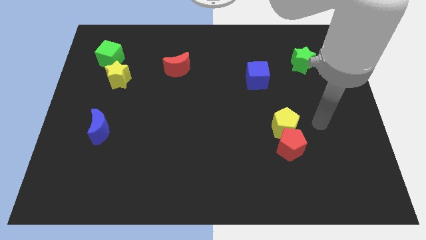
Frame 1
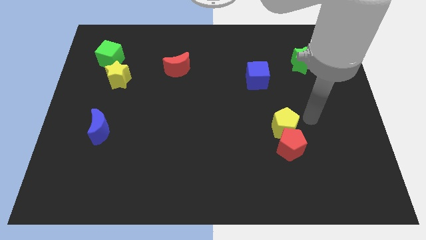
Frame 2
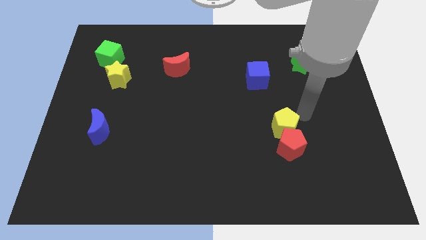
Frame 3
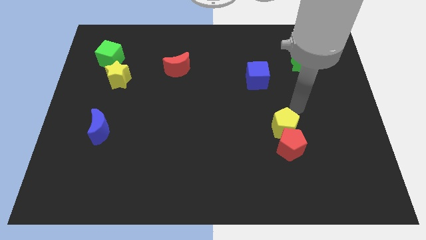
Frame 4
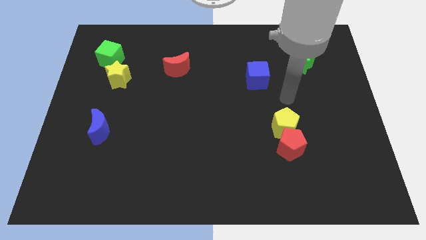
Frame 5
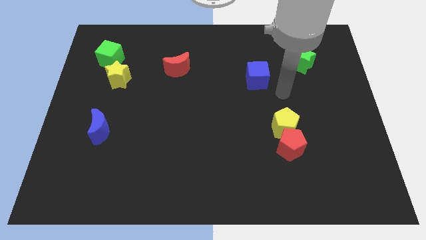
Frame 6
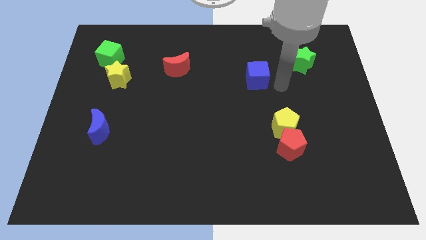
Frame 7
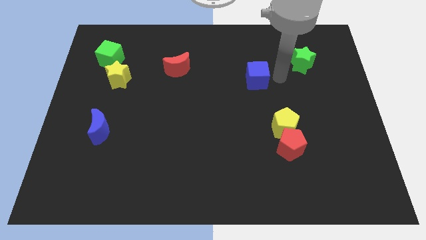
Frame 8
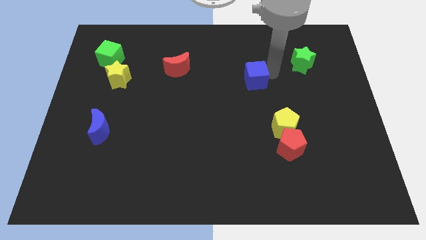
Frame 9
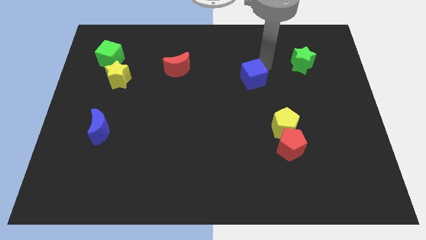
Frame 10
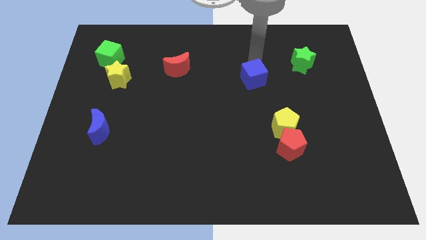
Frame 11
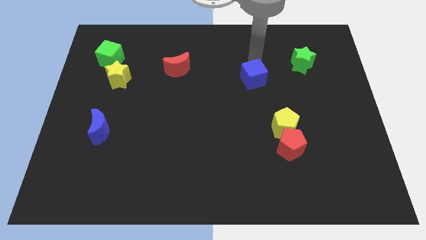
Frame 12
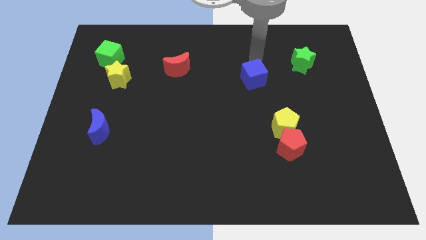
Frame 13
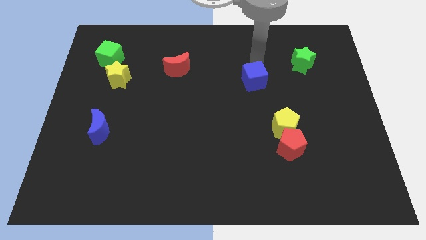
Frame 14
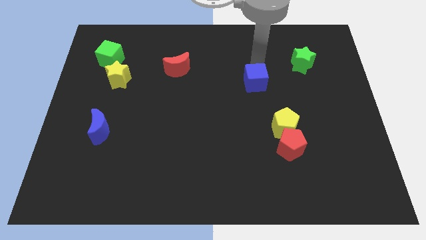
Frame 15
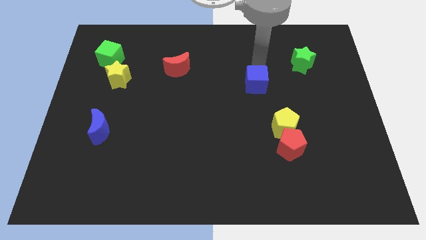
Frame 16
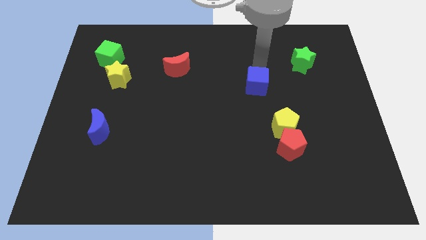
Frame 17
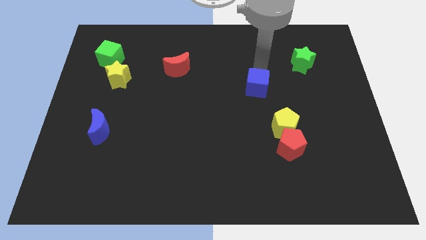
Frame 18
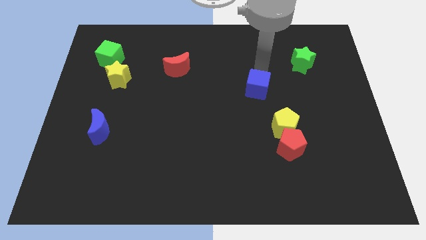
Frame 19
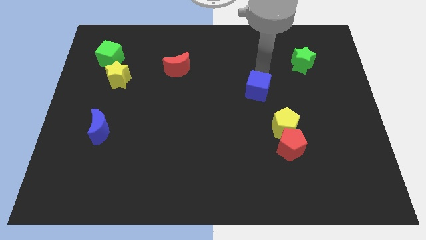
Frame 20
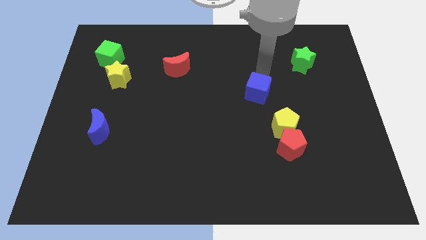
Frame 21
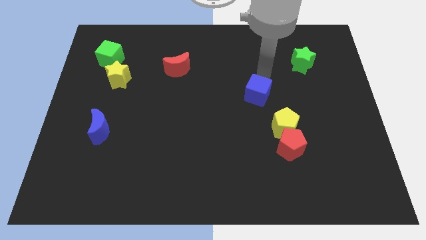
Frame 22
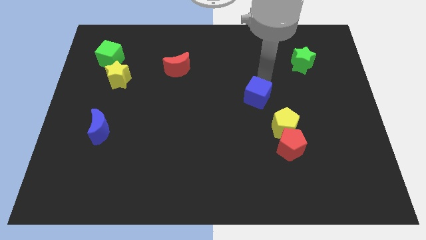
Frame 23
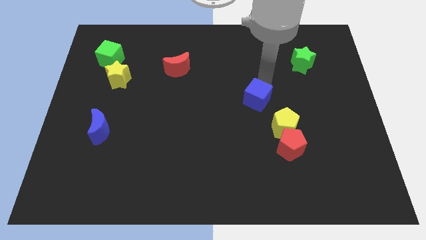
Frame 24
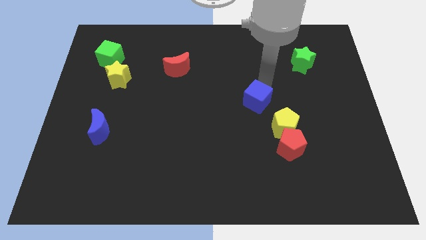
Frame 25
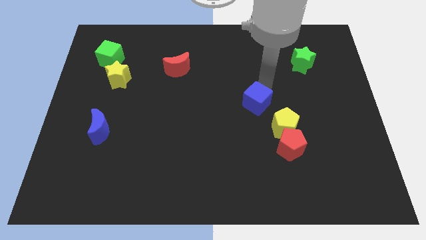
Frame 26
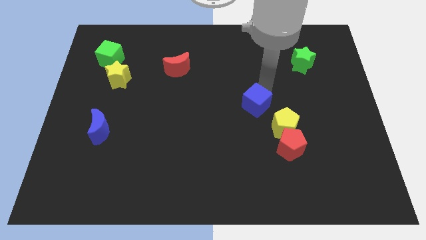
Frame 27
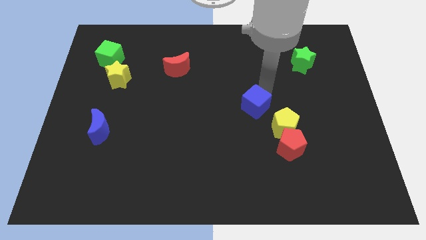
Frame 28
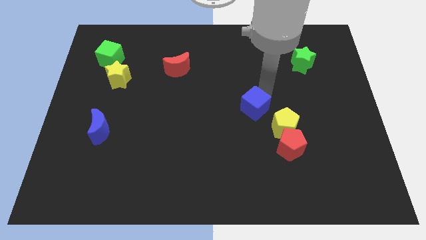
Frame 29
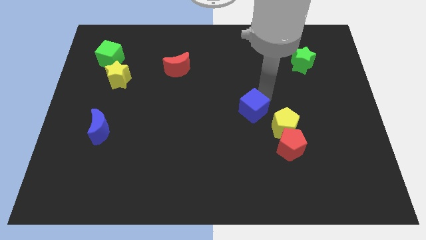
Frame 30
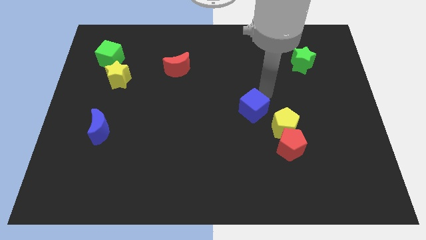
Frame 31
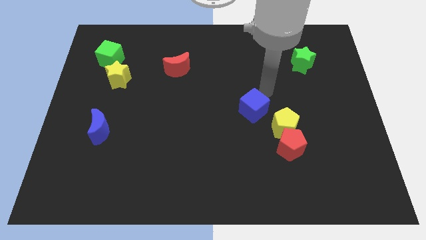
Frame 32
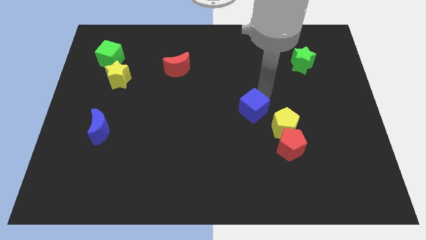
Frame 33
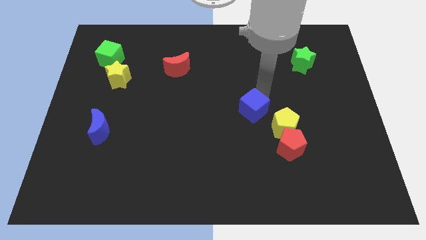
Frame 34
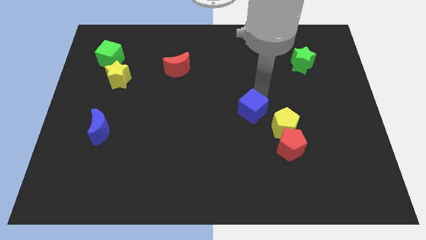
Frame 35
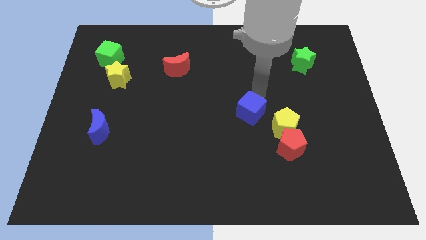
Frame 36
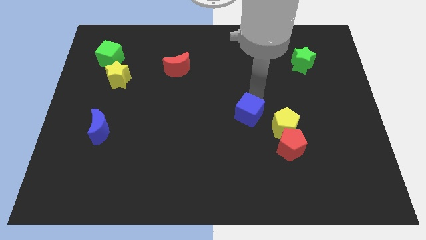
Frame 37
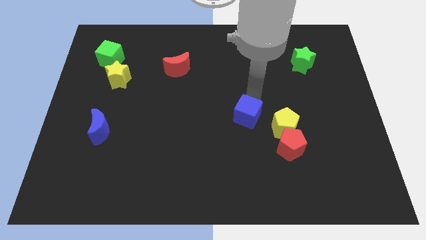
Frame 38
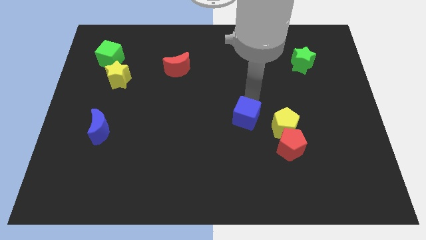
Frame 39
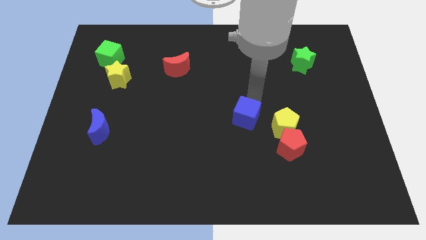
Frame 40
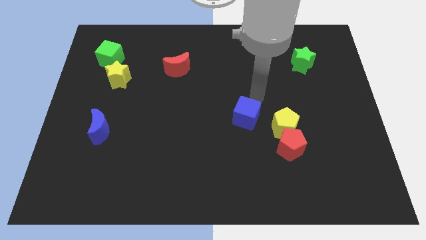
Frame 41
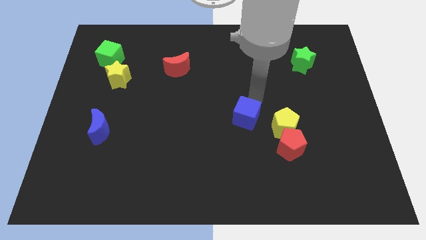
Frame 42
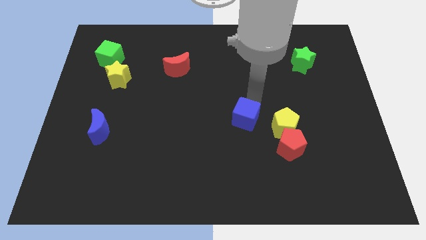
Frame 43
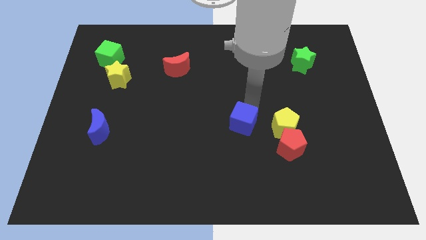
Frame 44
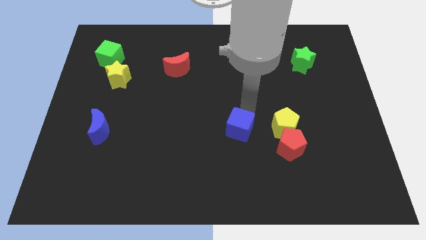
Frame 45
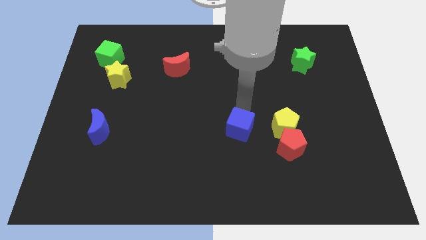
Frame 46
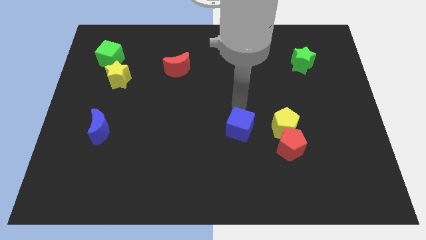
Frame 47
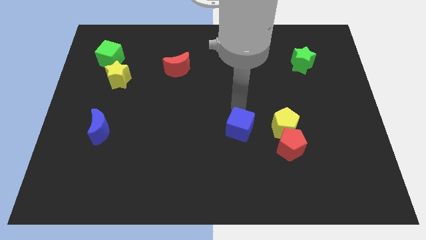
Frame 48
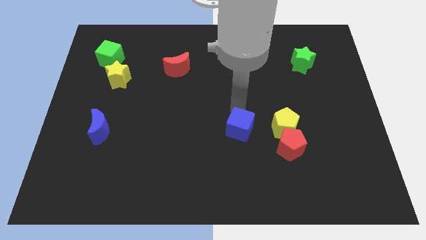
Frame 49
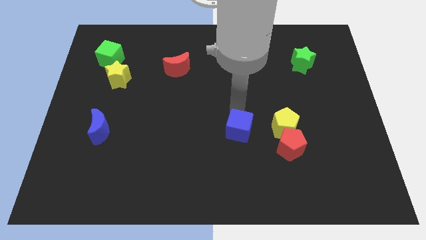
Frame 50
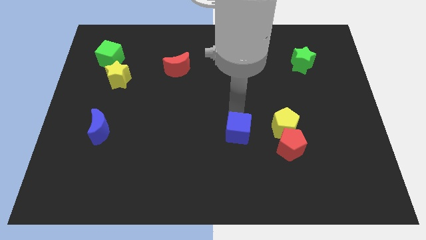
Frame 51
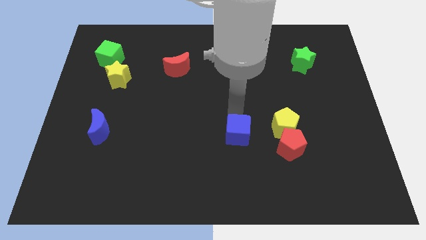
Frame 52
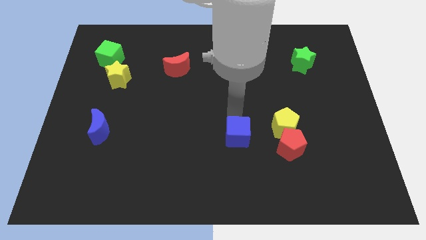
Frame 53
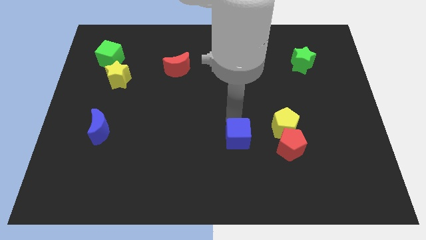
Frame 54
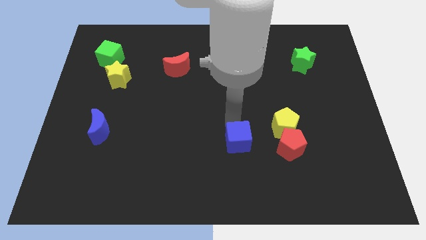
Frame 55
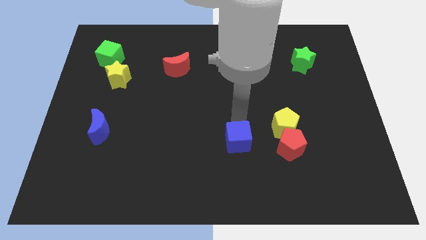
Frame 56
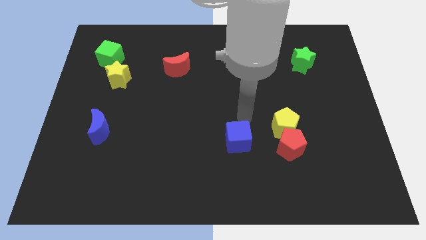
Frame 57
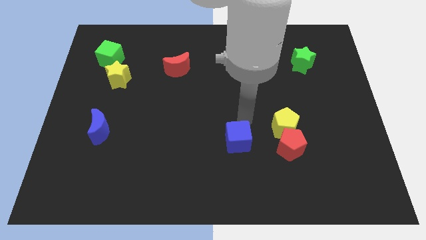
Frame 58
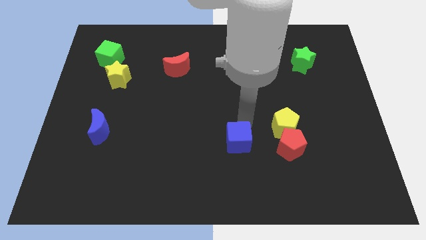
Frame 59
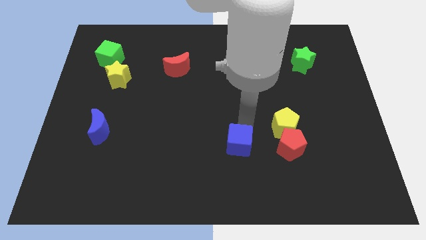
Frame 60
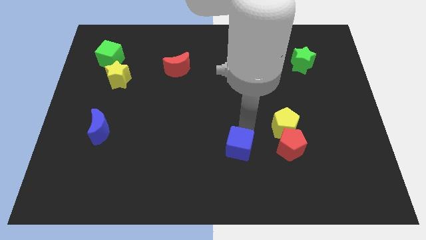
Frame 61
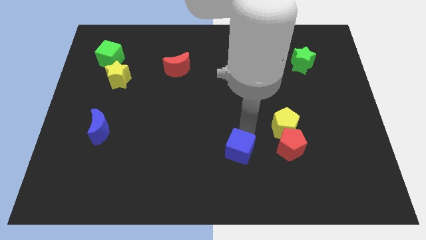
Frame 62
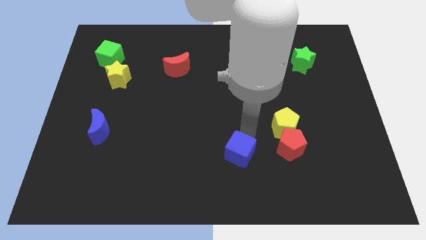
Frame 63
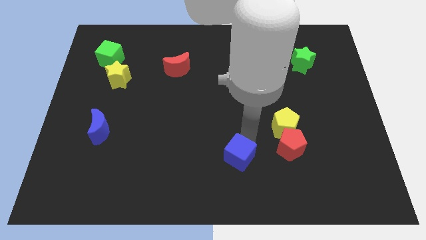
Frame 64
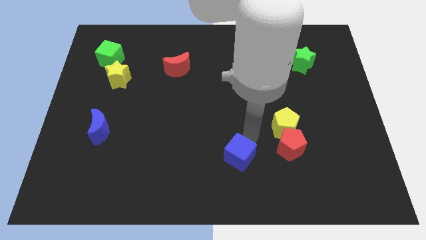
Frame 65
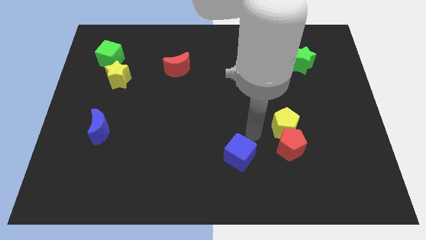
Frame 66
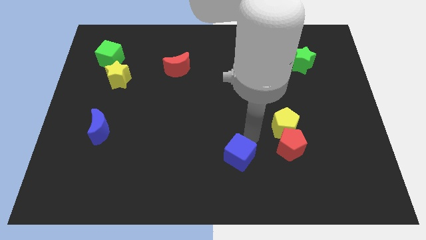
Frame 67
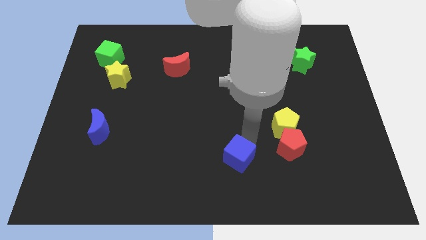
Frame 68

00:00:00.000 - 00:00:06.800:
push the blue cube to the bottom side
